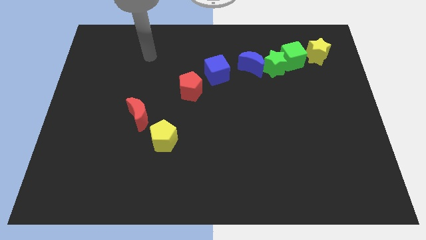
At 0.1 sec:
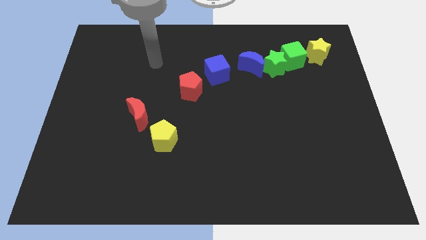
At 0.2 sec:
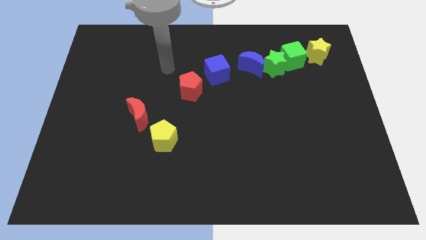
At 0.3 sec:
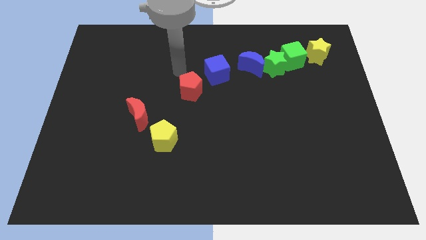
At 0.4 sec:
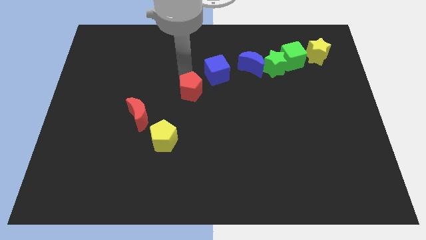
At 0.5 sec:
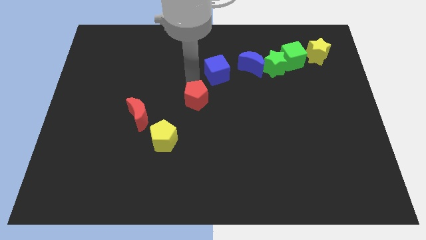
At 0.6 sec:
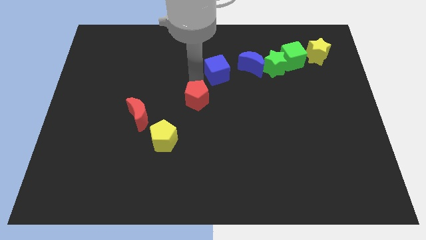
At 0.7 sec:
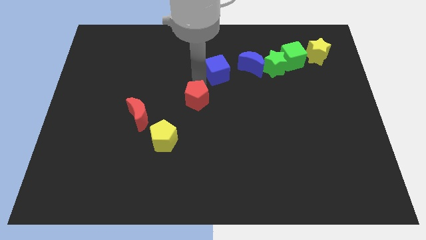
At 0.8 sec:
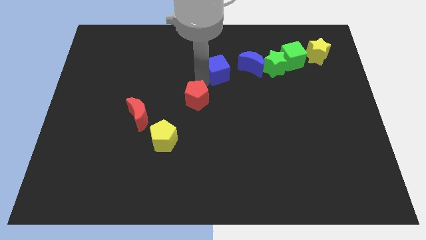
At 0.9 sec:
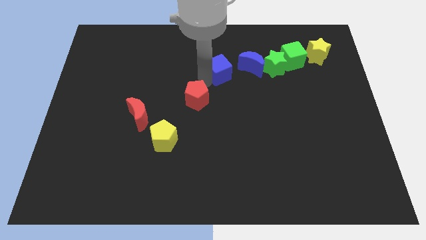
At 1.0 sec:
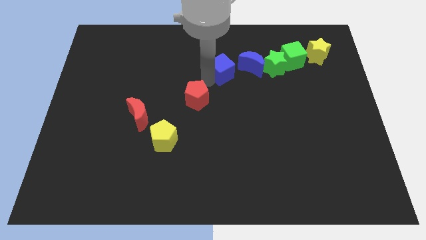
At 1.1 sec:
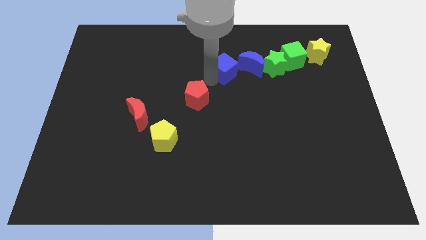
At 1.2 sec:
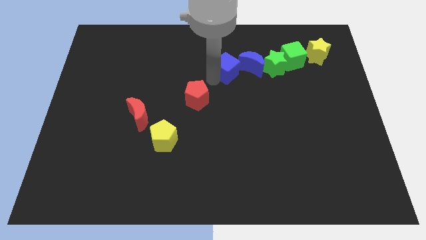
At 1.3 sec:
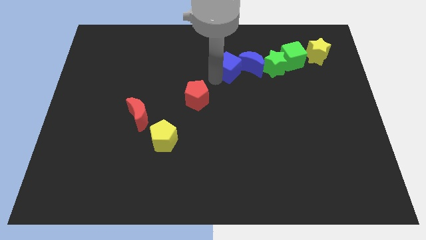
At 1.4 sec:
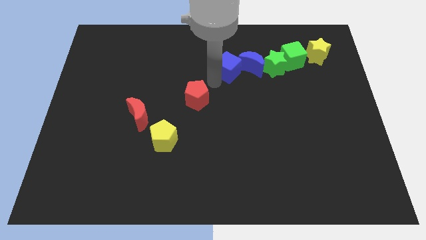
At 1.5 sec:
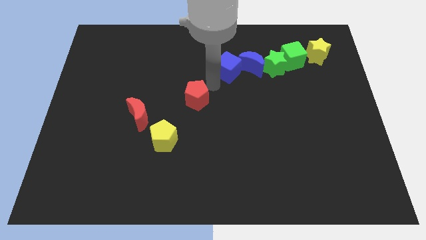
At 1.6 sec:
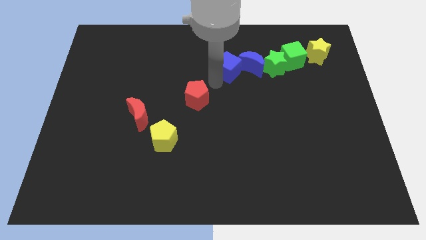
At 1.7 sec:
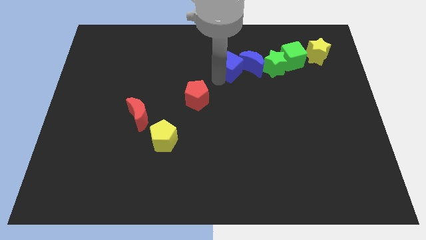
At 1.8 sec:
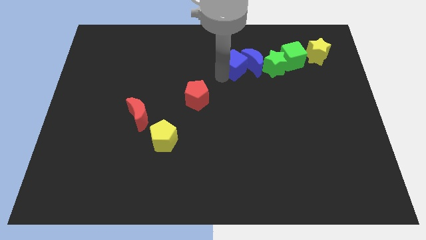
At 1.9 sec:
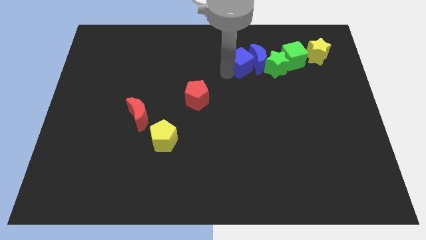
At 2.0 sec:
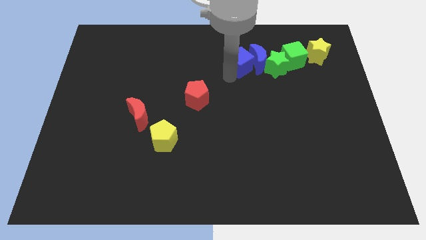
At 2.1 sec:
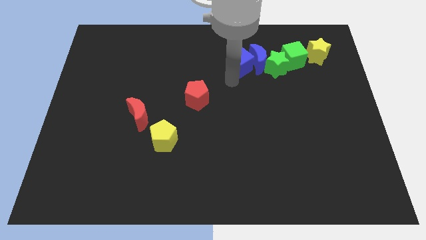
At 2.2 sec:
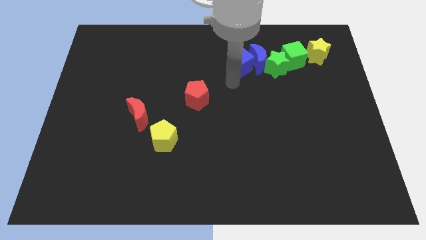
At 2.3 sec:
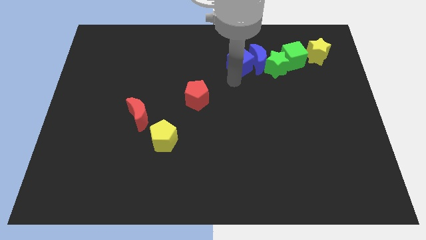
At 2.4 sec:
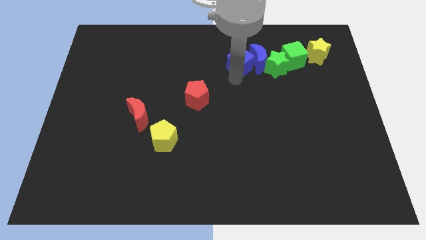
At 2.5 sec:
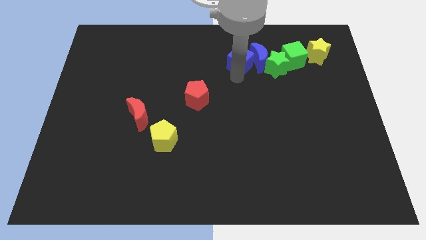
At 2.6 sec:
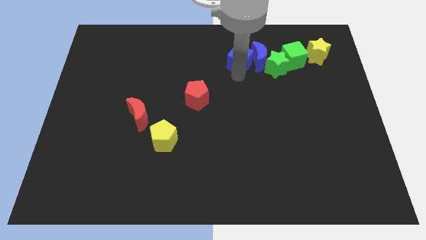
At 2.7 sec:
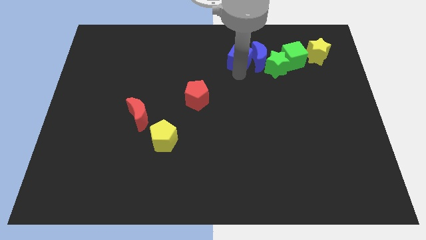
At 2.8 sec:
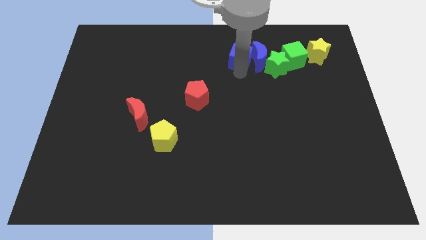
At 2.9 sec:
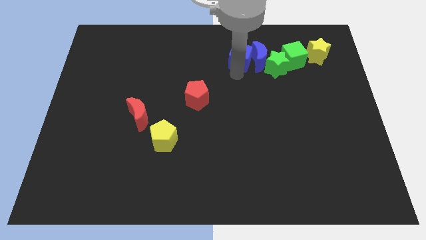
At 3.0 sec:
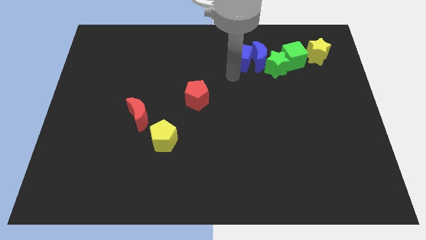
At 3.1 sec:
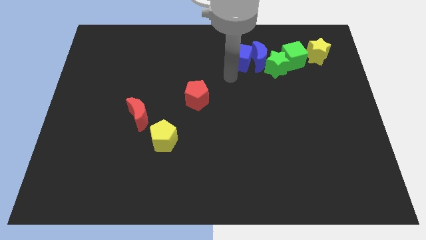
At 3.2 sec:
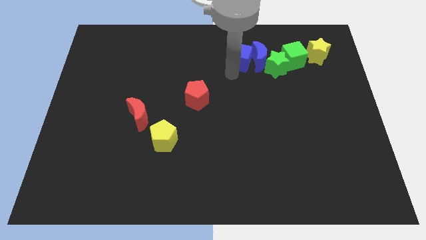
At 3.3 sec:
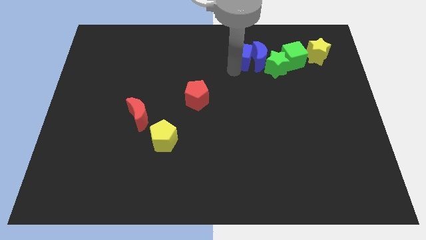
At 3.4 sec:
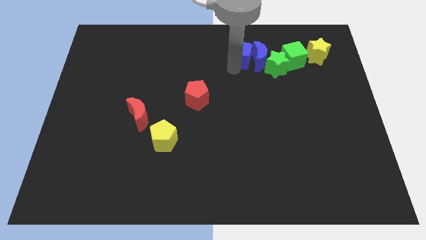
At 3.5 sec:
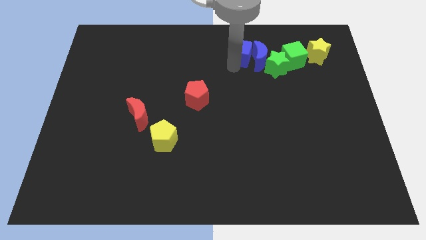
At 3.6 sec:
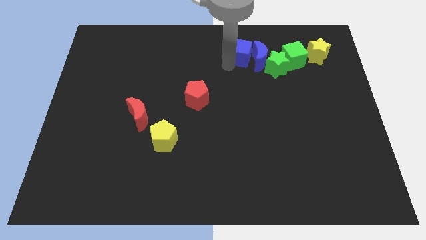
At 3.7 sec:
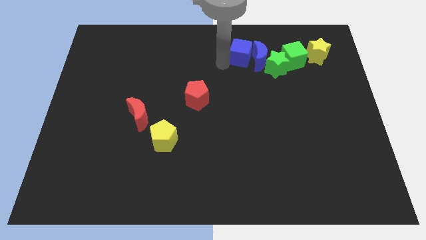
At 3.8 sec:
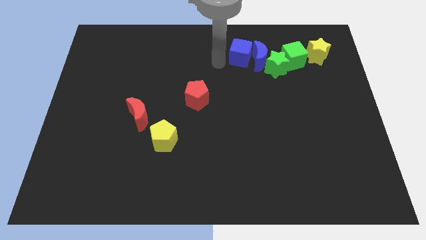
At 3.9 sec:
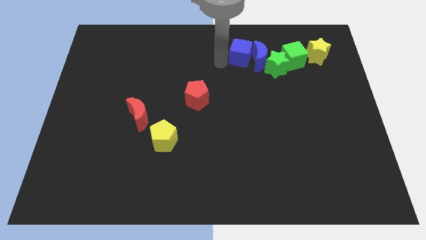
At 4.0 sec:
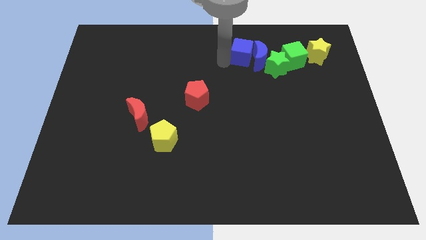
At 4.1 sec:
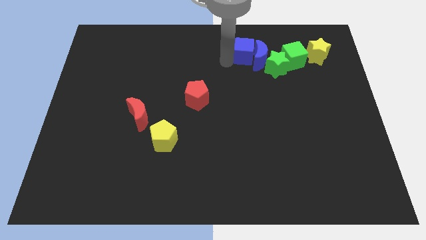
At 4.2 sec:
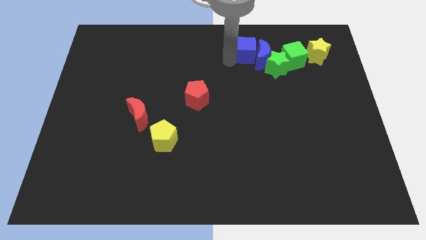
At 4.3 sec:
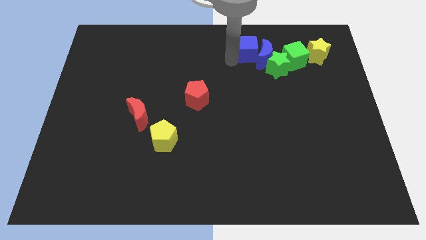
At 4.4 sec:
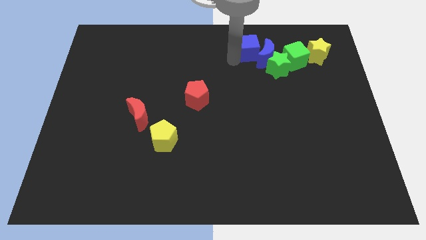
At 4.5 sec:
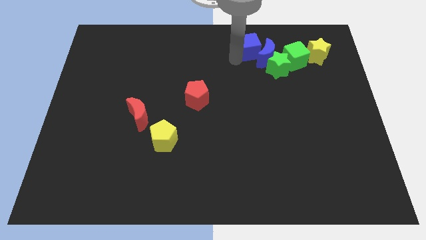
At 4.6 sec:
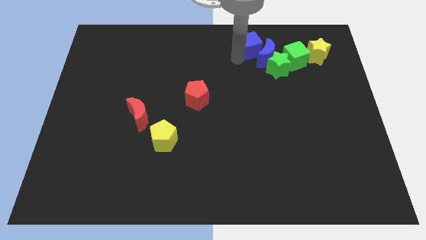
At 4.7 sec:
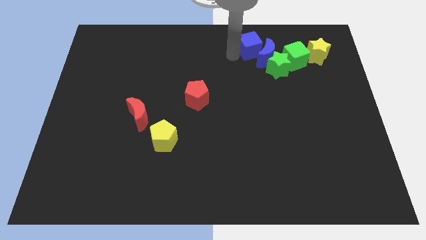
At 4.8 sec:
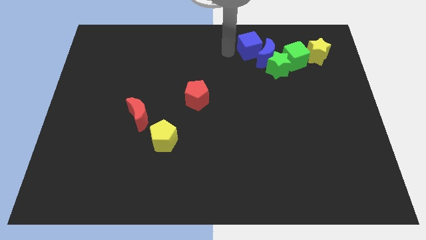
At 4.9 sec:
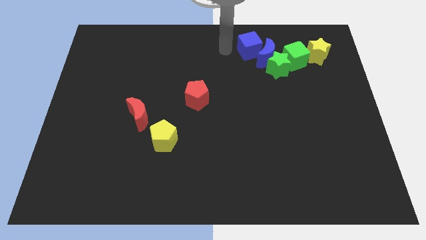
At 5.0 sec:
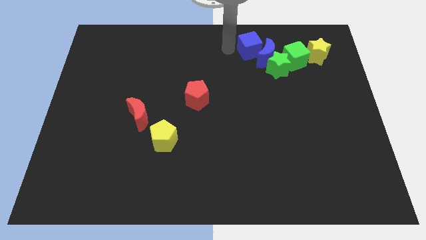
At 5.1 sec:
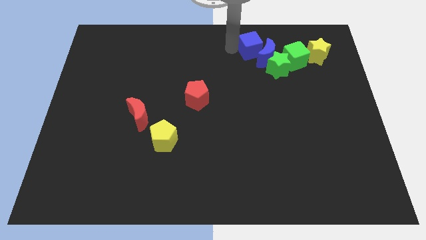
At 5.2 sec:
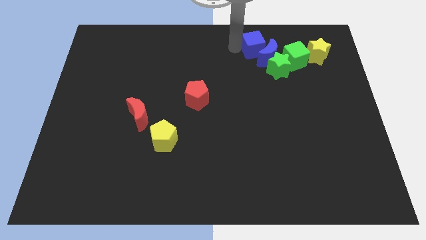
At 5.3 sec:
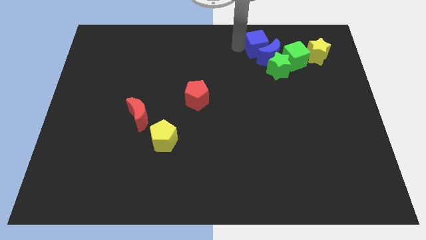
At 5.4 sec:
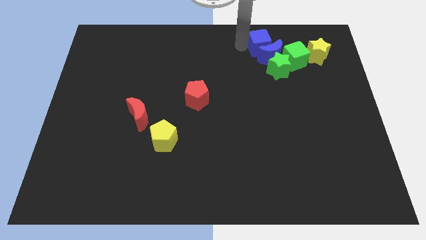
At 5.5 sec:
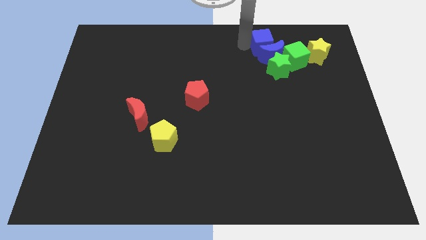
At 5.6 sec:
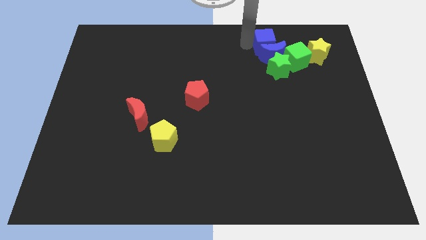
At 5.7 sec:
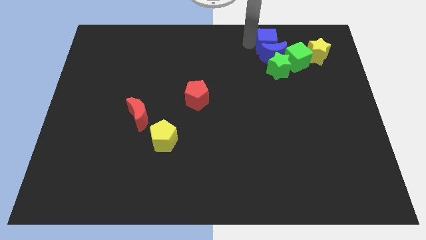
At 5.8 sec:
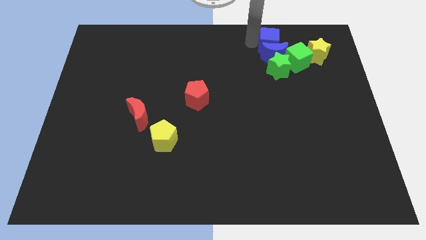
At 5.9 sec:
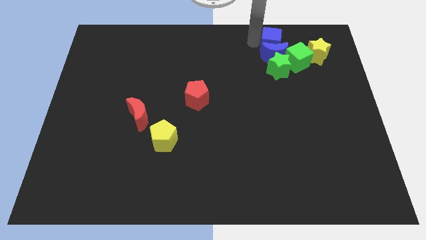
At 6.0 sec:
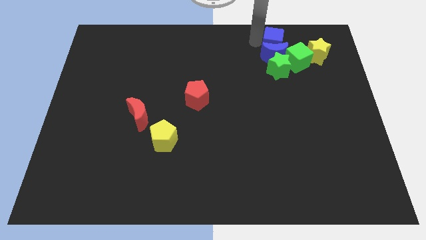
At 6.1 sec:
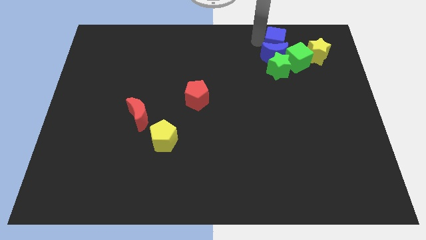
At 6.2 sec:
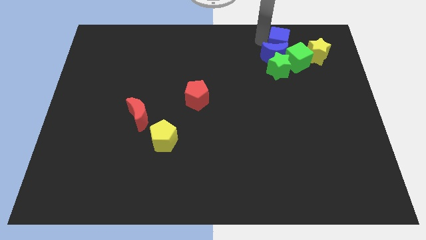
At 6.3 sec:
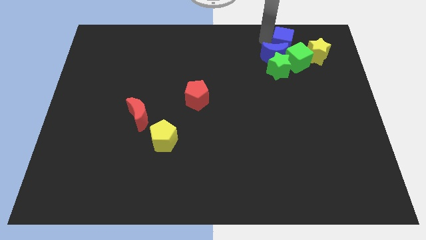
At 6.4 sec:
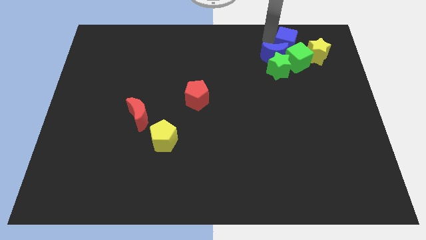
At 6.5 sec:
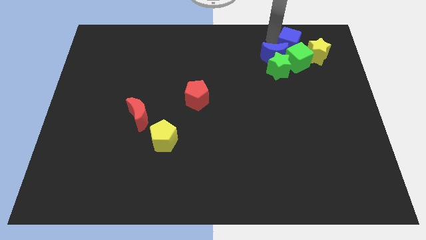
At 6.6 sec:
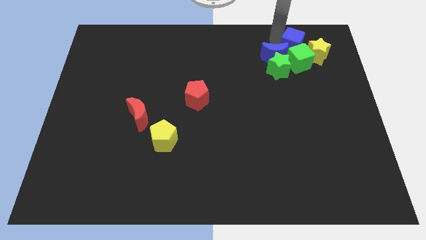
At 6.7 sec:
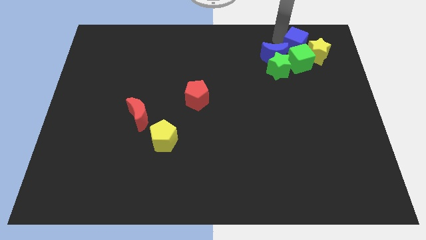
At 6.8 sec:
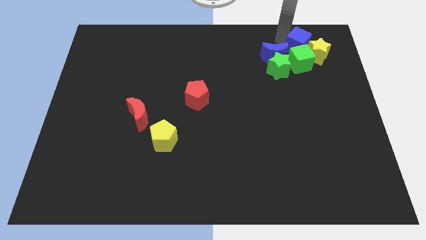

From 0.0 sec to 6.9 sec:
slide the blue cube close to the yellow star
